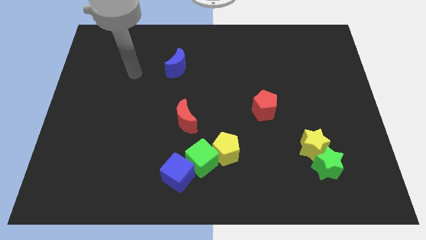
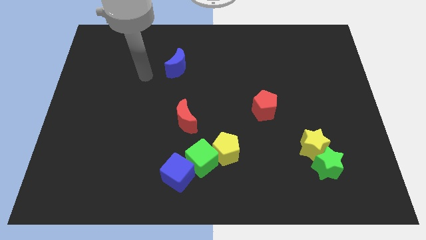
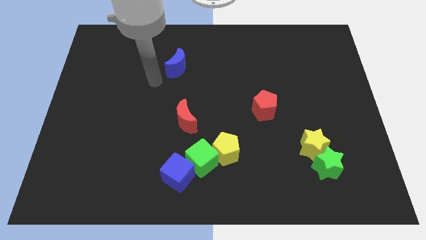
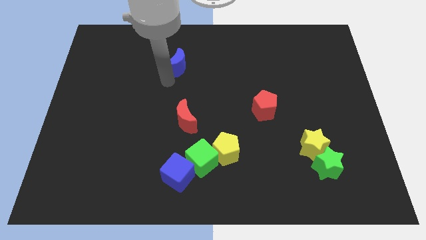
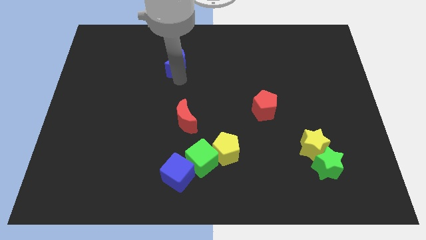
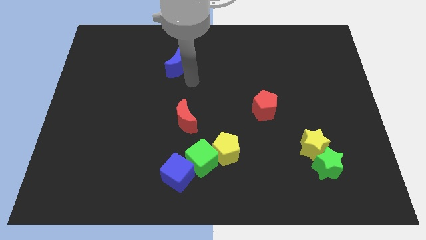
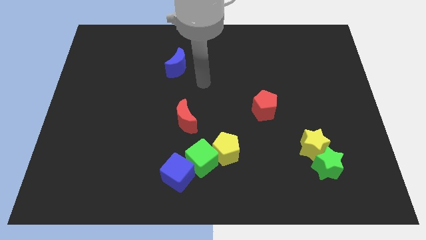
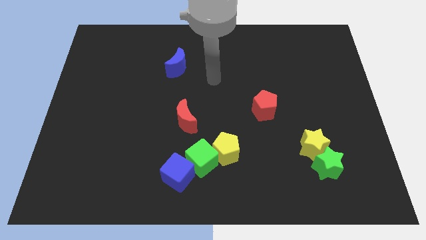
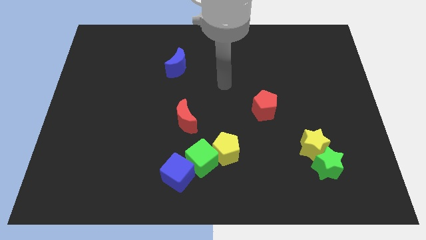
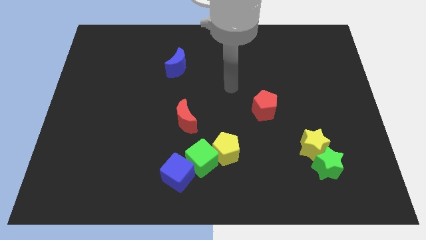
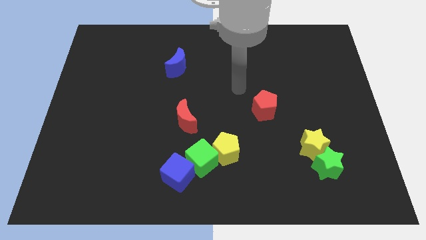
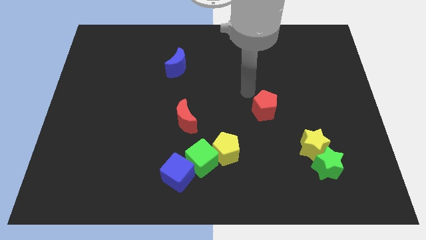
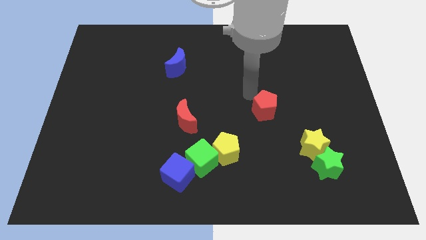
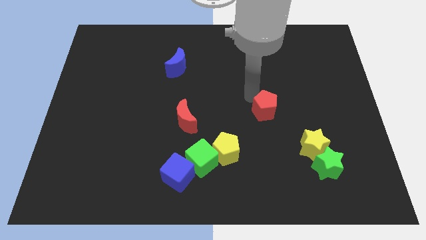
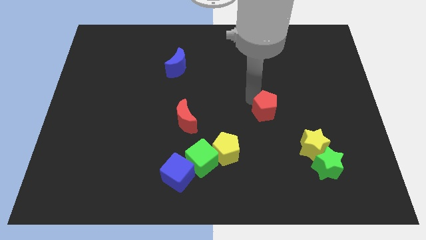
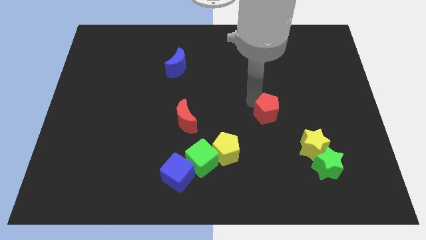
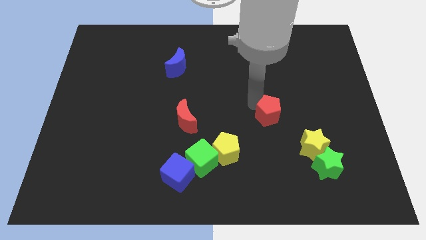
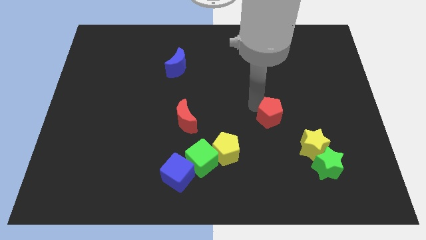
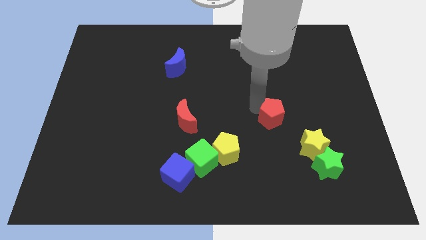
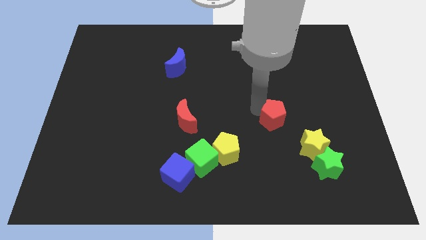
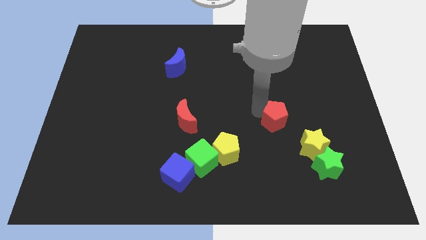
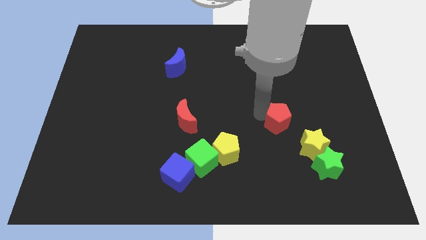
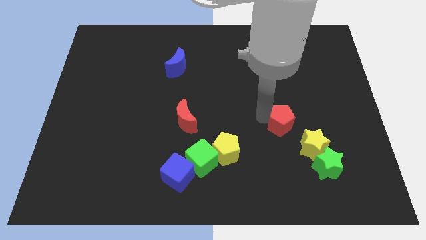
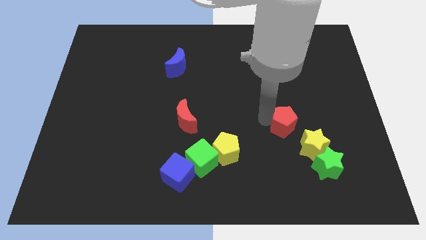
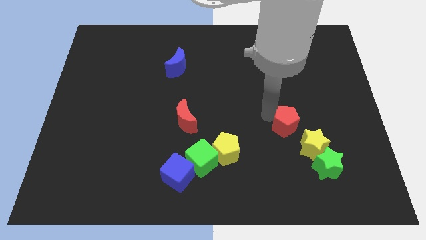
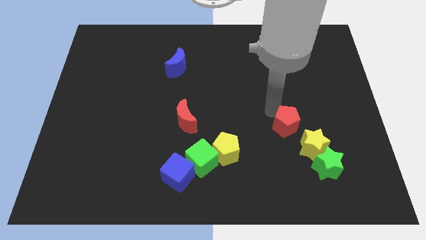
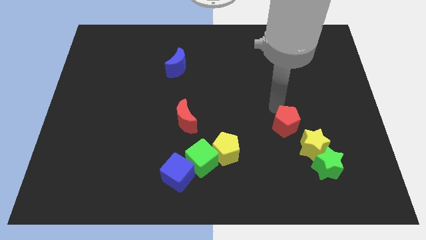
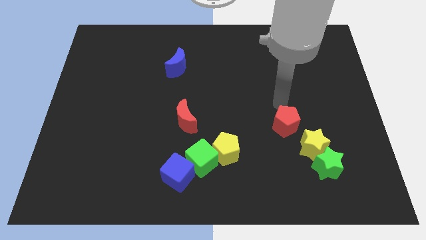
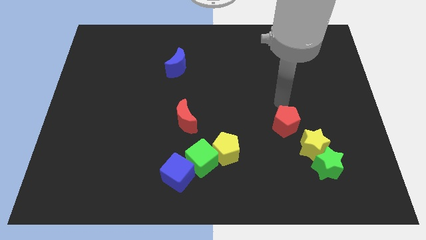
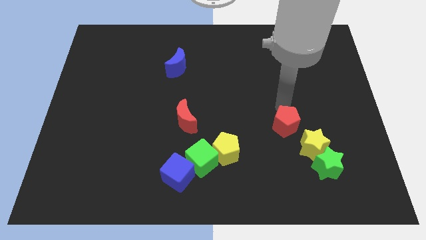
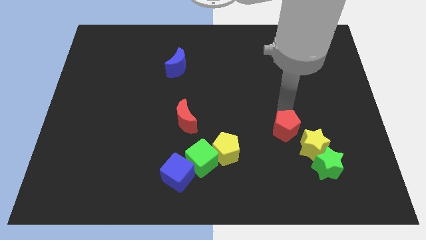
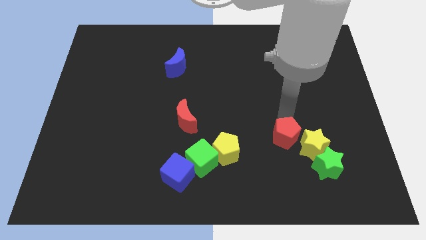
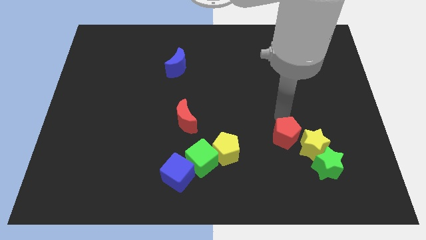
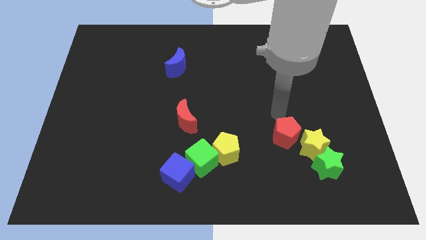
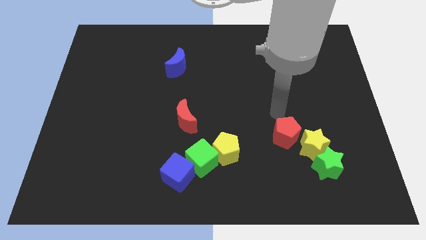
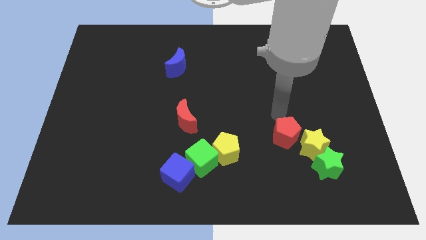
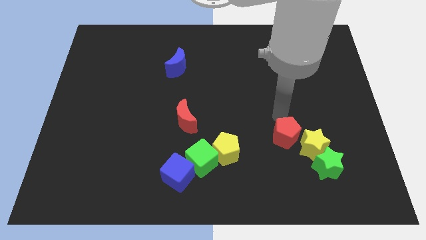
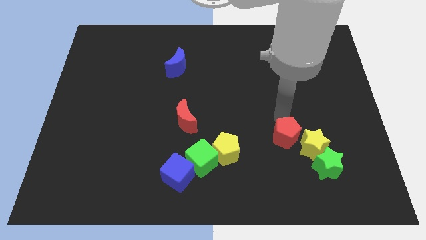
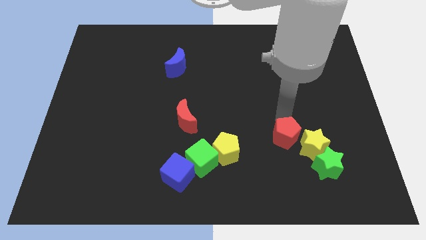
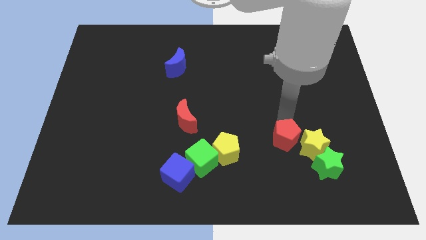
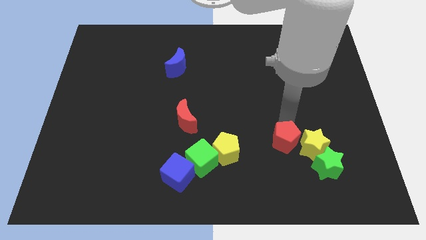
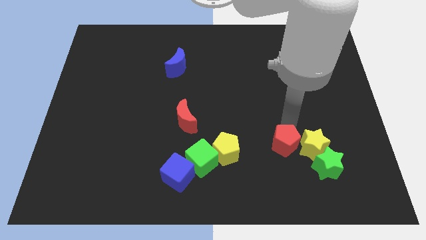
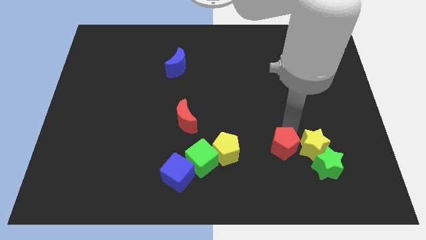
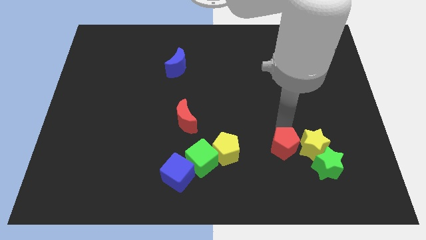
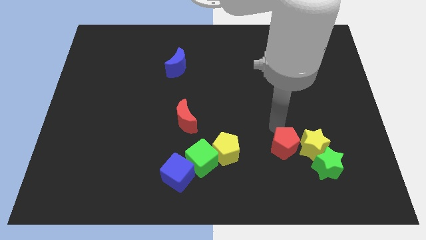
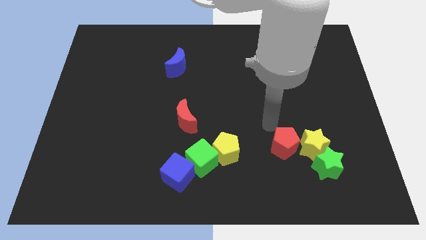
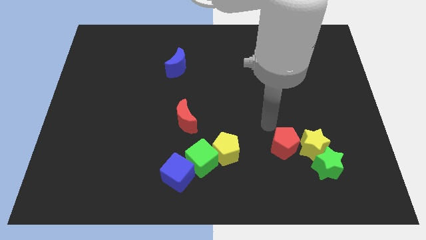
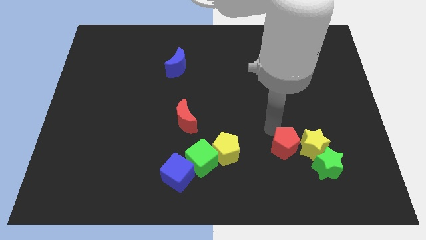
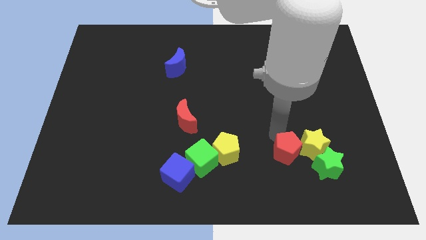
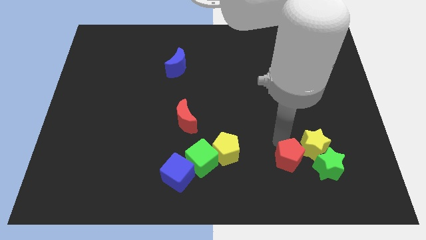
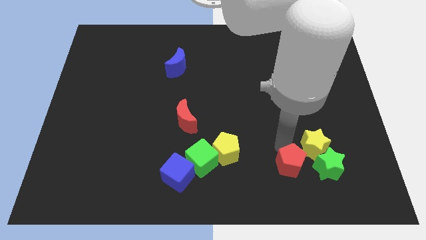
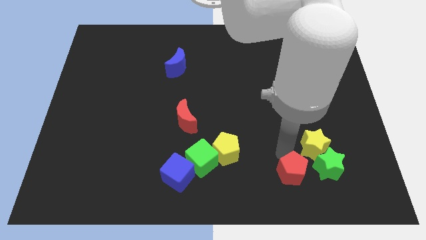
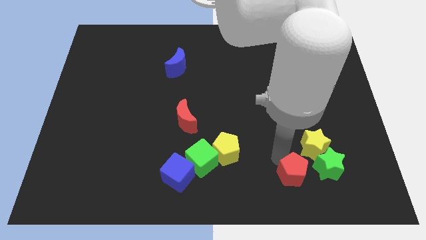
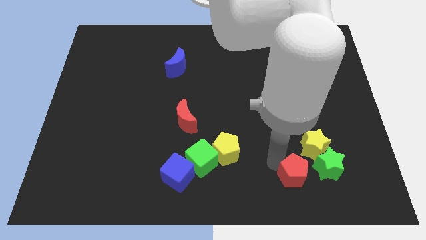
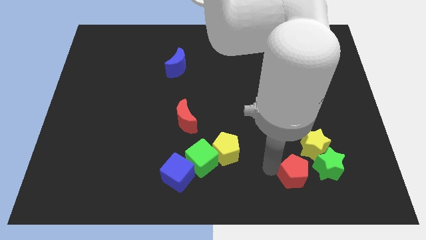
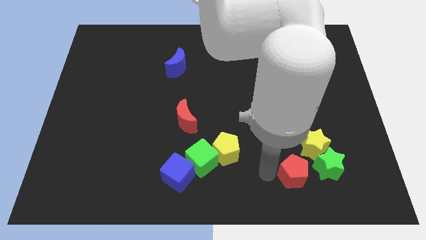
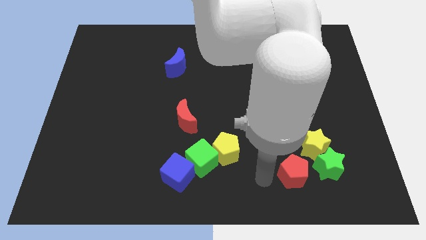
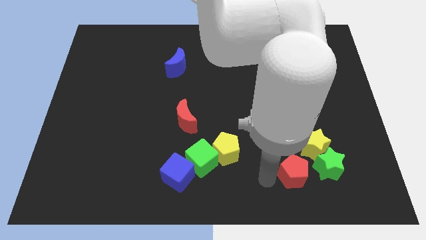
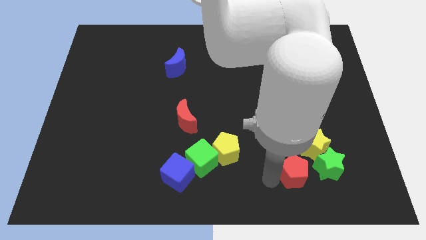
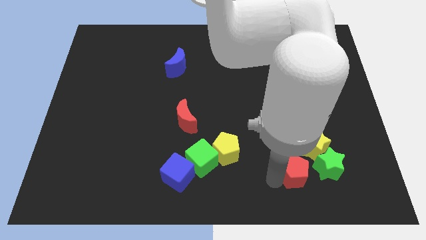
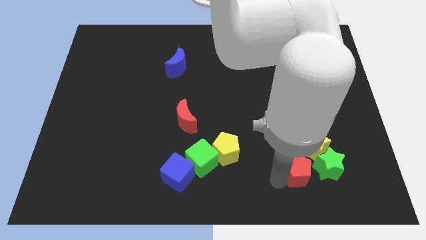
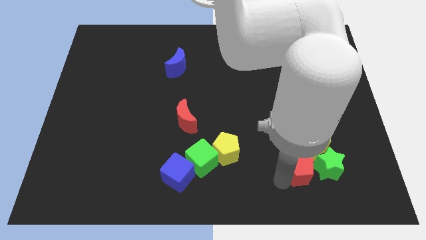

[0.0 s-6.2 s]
slide the red pentagon to the green star

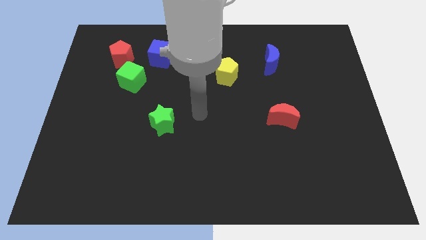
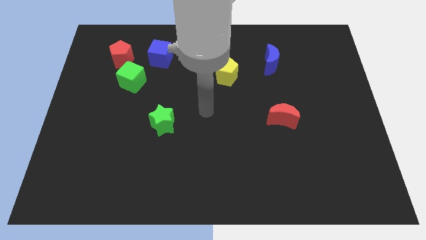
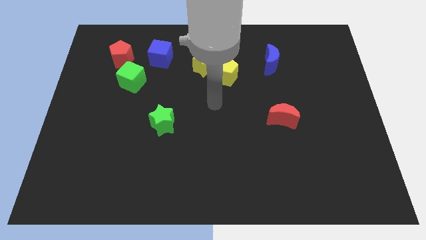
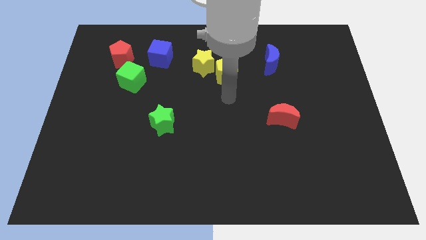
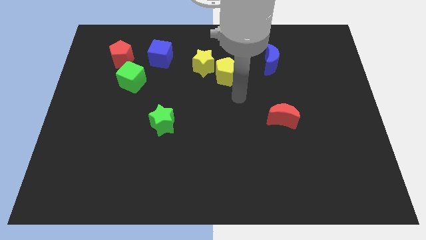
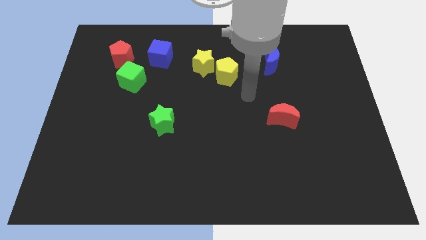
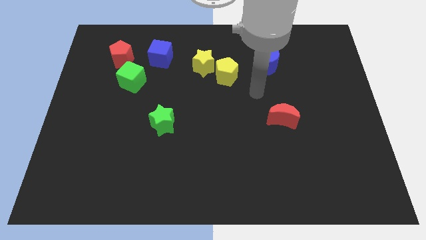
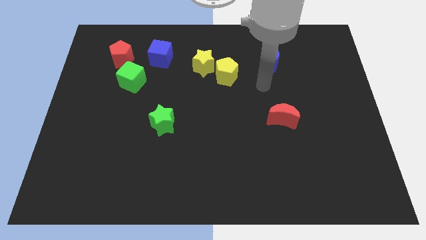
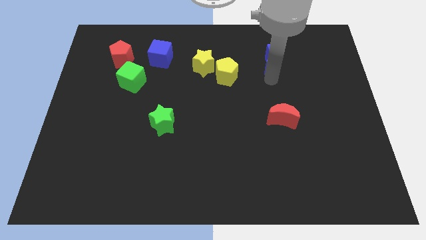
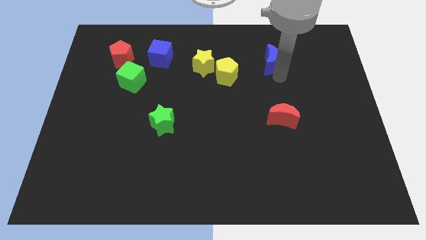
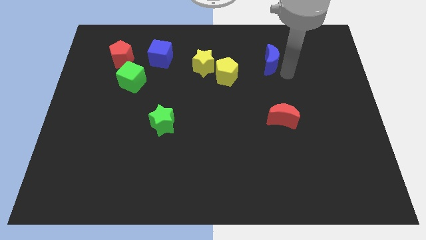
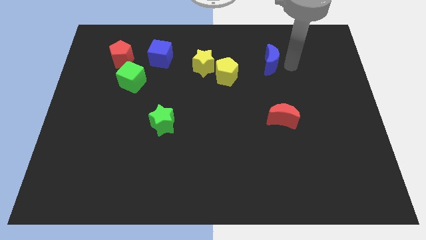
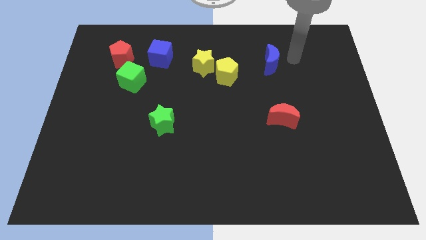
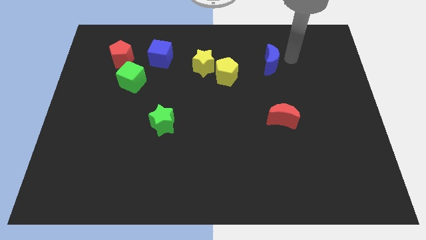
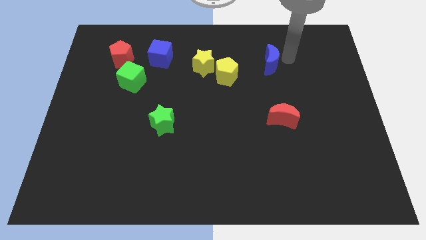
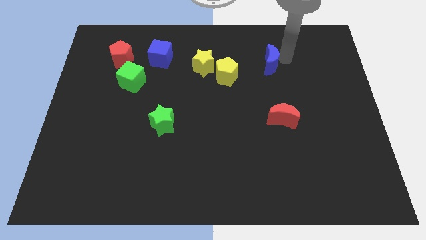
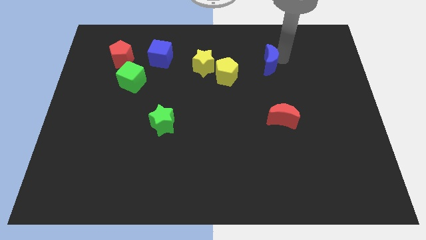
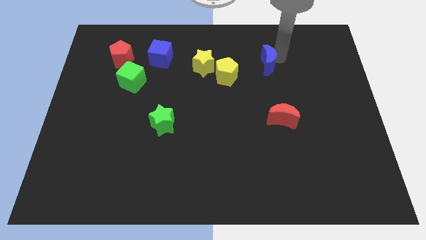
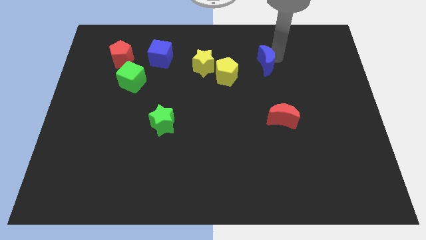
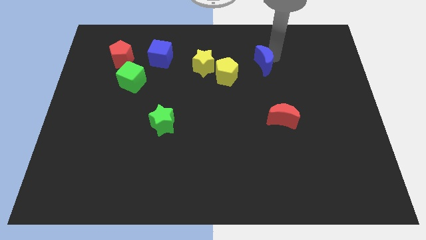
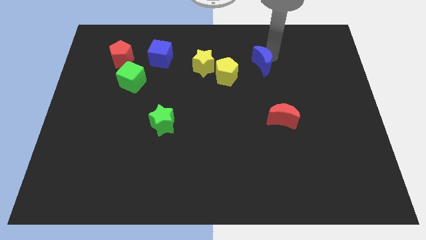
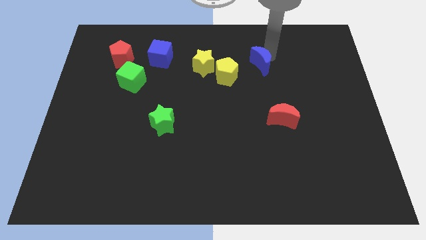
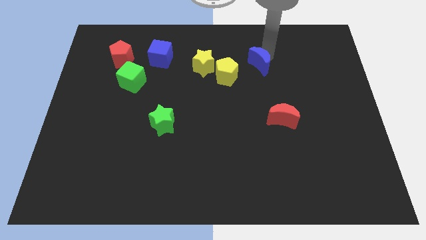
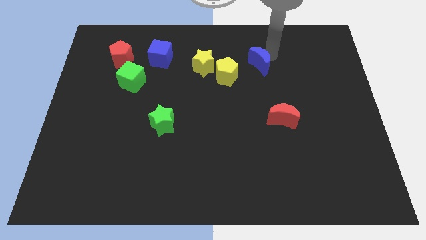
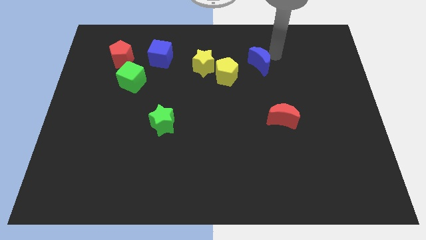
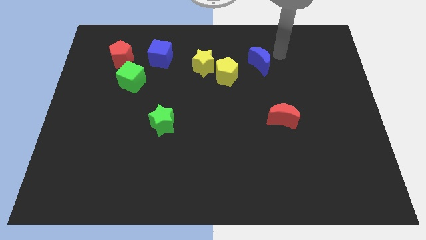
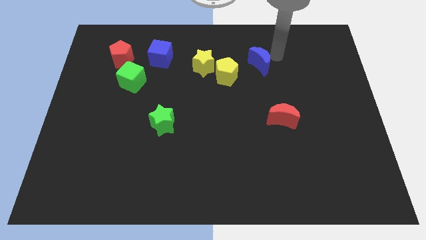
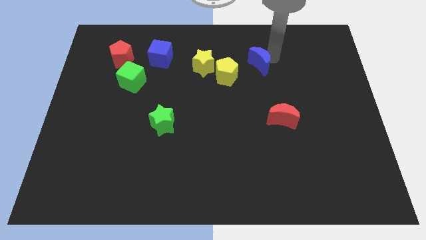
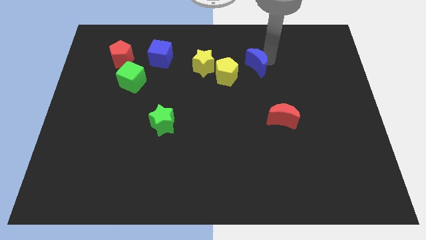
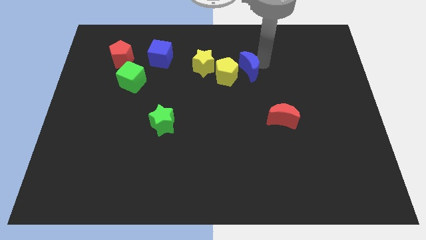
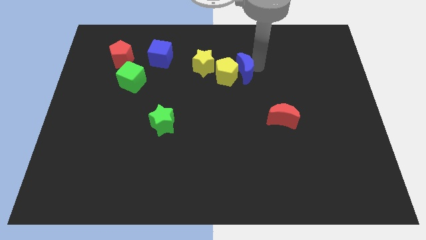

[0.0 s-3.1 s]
push the blue moon close to the yellow pentagon
